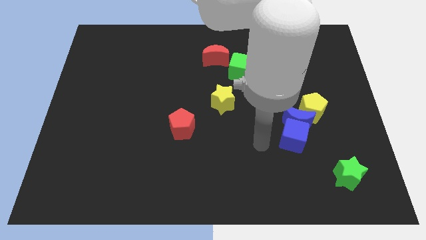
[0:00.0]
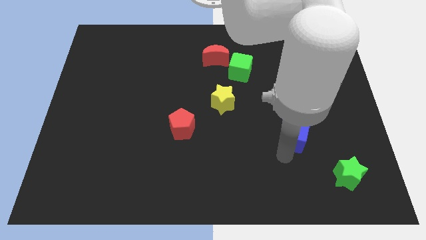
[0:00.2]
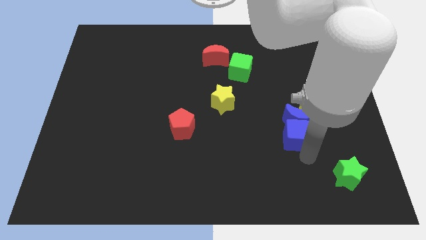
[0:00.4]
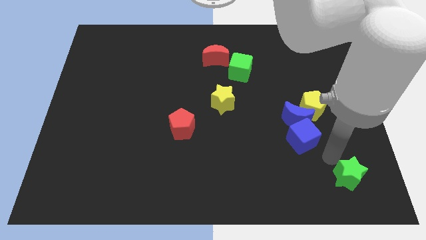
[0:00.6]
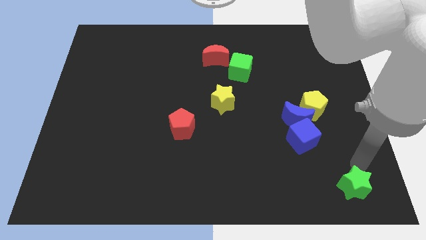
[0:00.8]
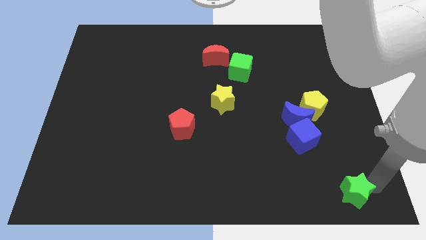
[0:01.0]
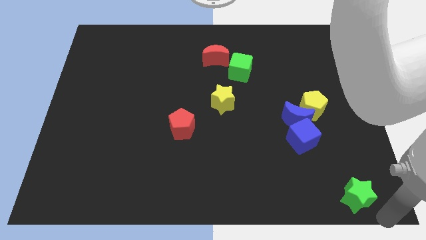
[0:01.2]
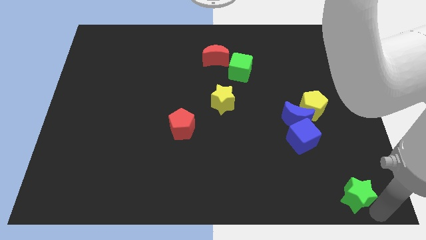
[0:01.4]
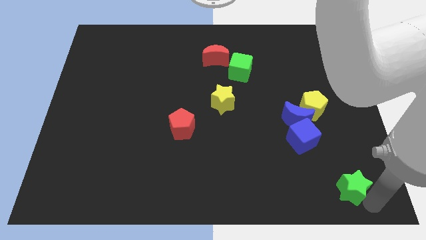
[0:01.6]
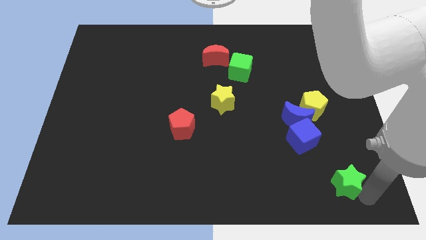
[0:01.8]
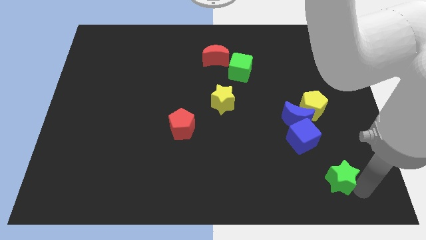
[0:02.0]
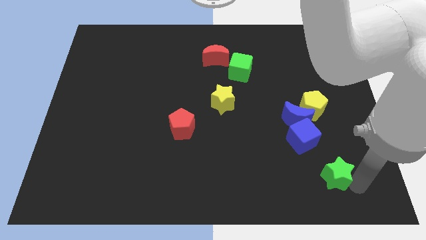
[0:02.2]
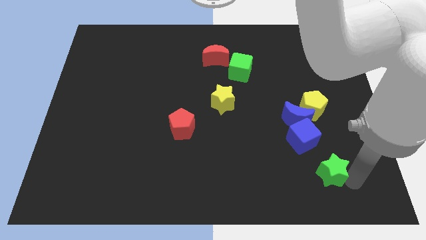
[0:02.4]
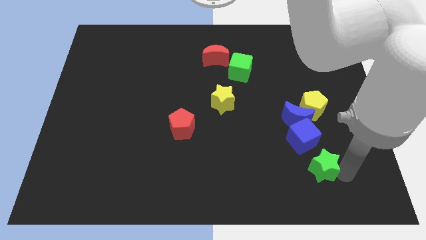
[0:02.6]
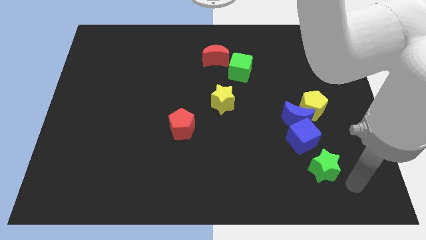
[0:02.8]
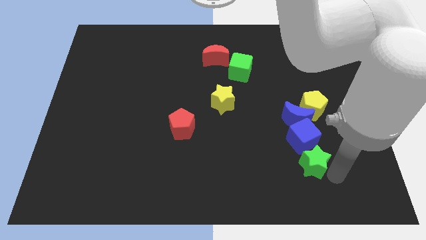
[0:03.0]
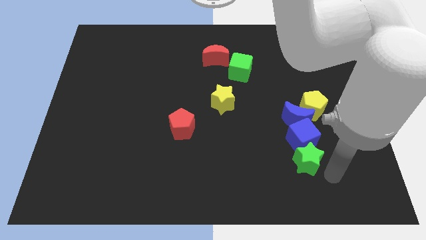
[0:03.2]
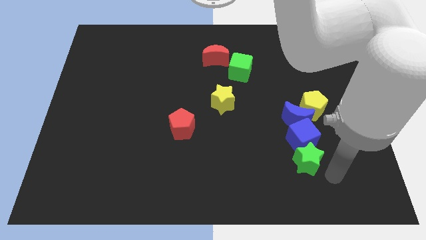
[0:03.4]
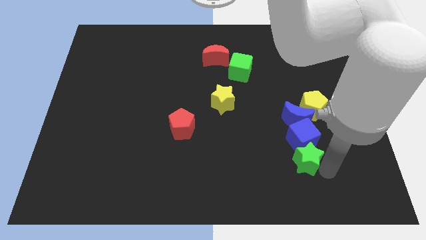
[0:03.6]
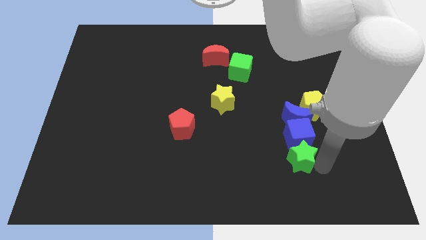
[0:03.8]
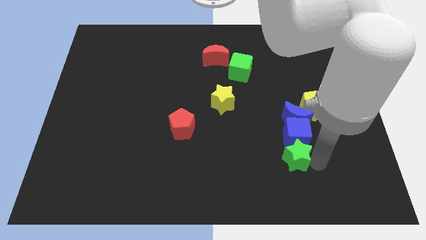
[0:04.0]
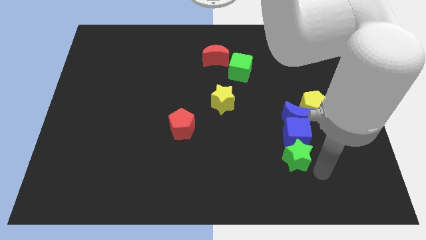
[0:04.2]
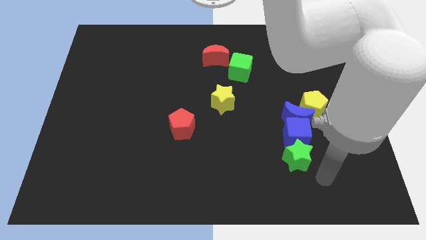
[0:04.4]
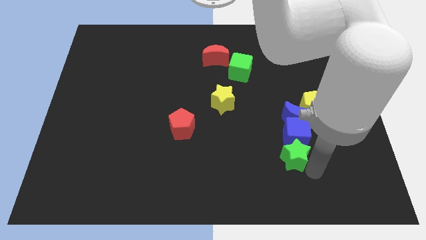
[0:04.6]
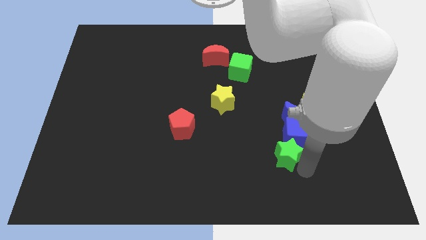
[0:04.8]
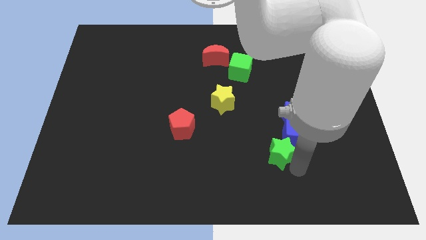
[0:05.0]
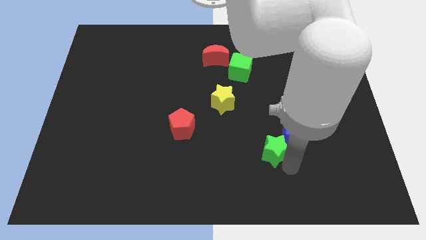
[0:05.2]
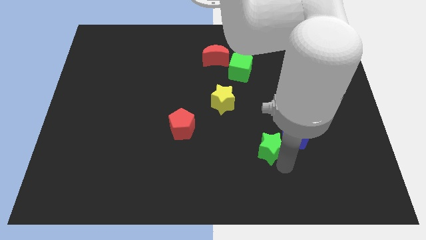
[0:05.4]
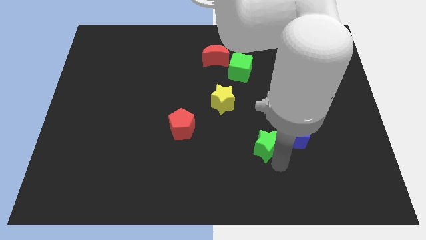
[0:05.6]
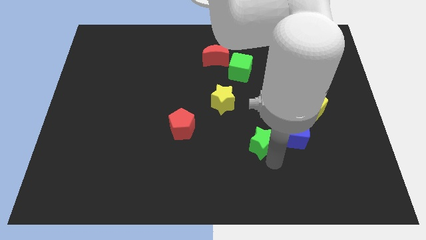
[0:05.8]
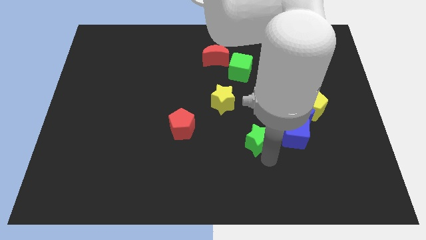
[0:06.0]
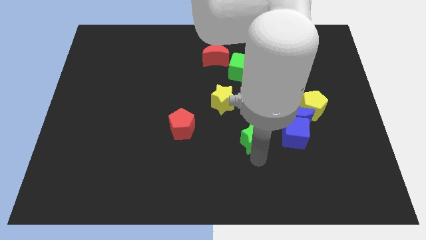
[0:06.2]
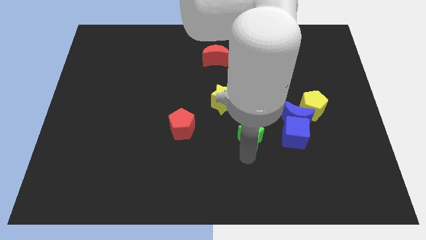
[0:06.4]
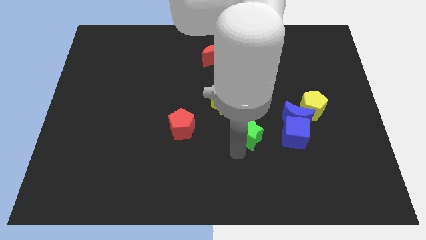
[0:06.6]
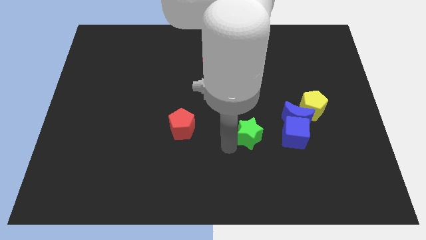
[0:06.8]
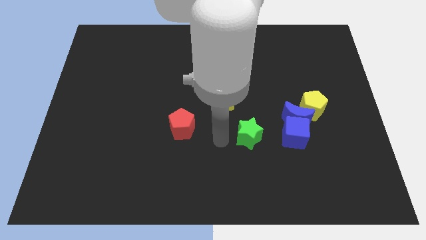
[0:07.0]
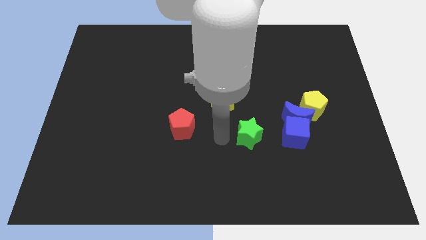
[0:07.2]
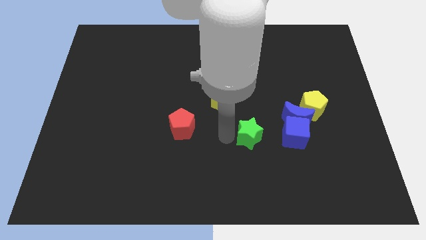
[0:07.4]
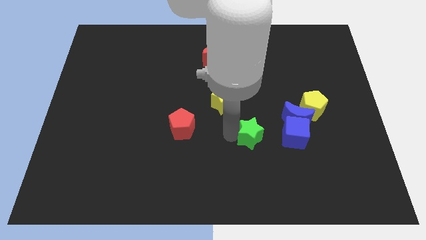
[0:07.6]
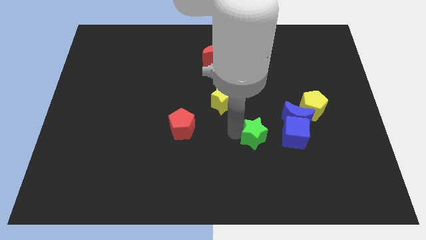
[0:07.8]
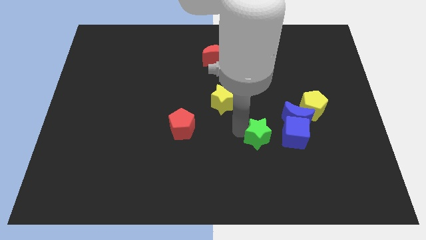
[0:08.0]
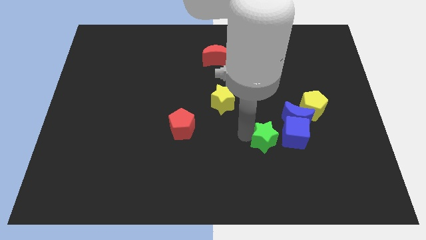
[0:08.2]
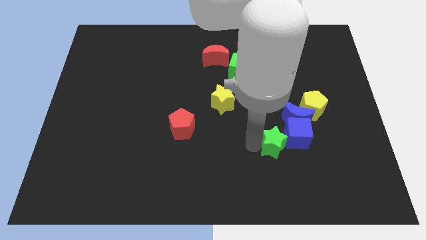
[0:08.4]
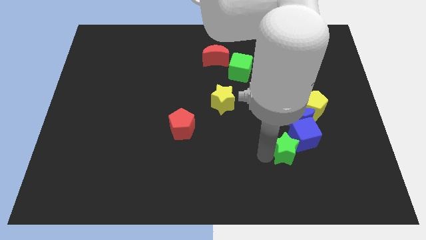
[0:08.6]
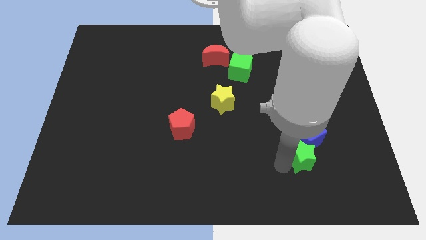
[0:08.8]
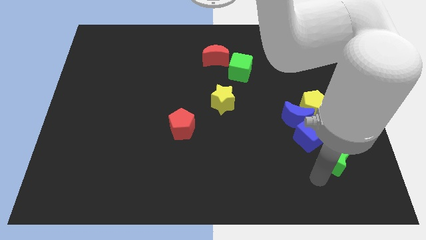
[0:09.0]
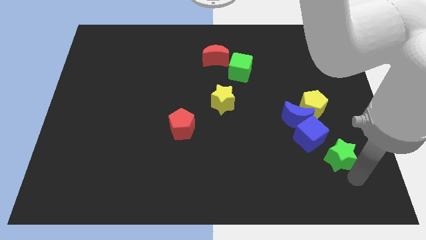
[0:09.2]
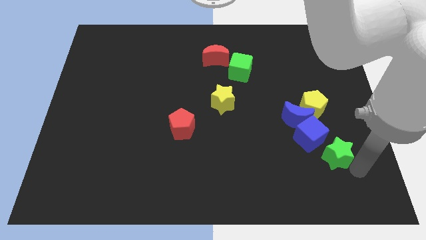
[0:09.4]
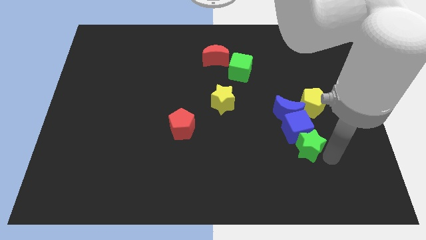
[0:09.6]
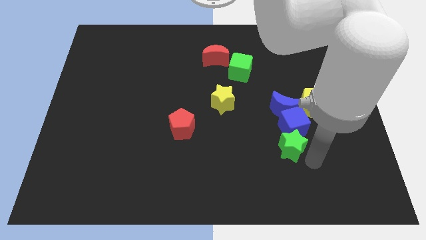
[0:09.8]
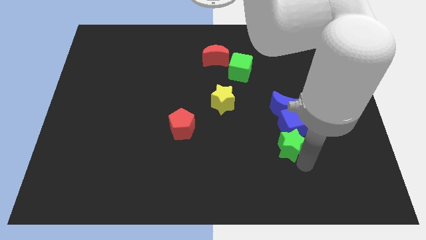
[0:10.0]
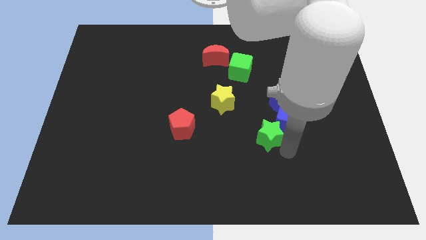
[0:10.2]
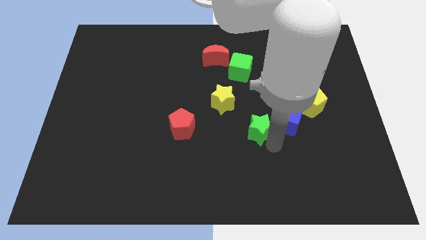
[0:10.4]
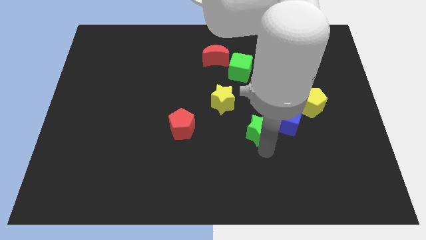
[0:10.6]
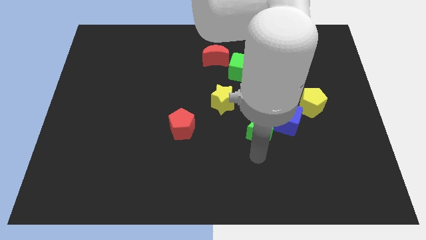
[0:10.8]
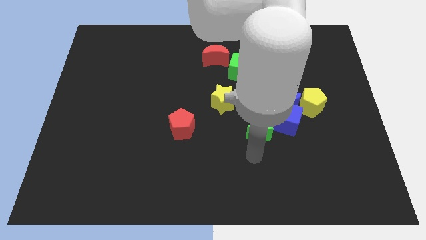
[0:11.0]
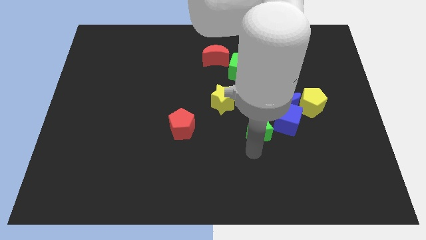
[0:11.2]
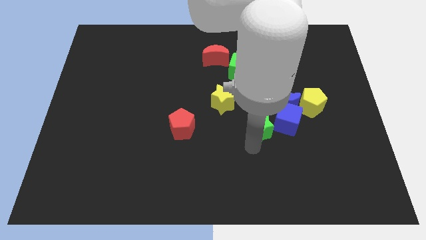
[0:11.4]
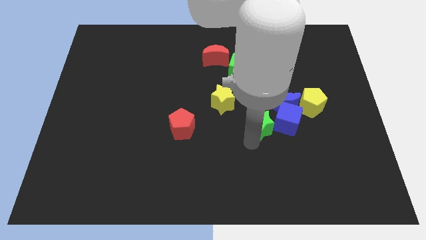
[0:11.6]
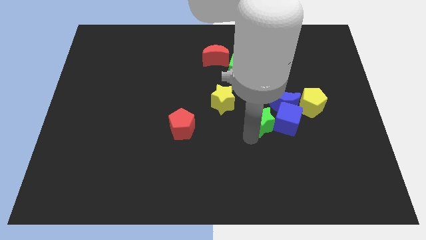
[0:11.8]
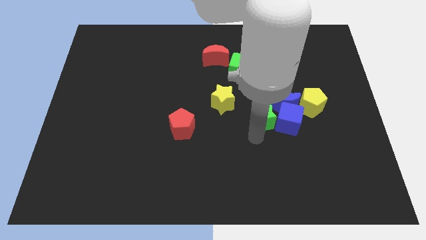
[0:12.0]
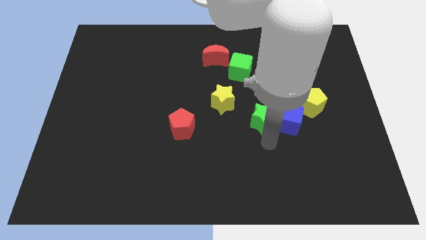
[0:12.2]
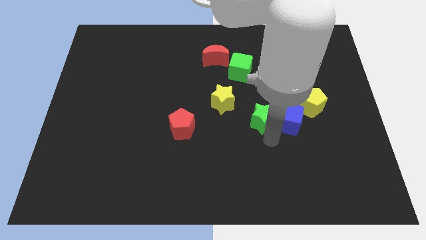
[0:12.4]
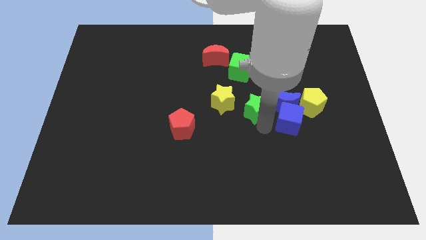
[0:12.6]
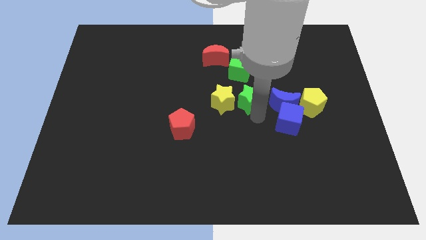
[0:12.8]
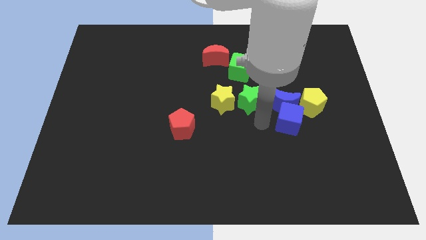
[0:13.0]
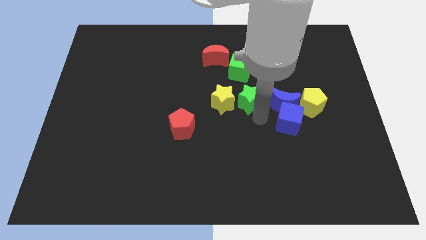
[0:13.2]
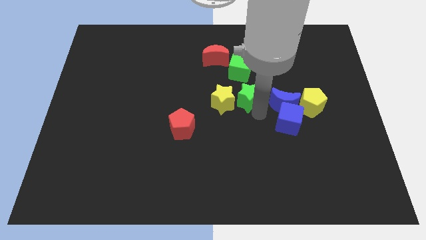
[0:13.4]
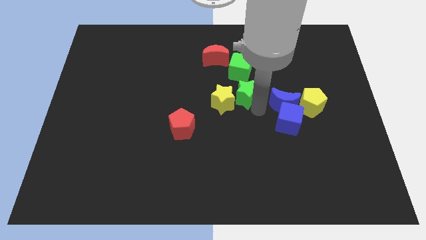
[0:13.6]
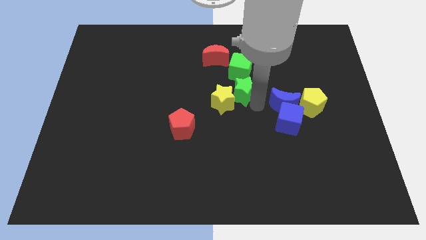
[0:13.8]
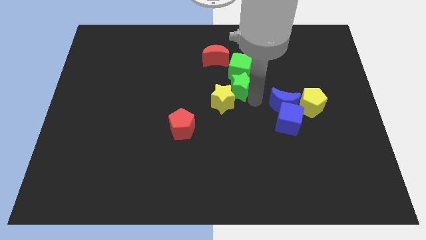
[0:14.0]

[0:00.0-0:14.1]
put the green star diagonally down and to the left of the green cube
